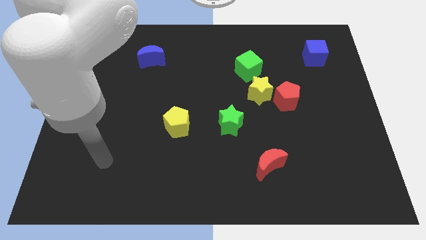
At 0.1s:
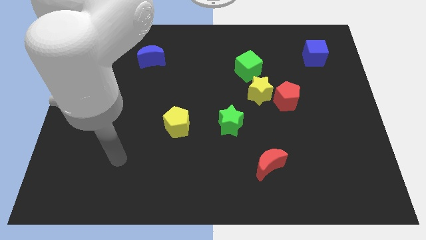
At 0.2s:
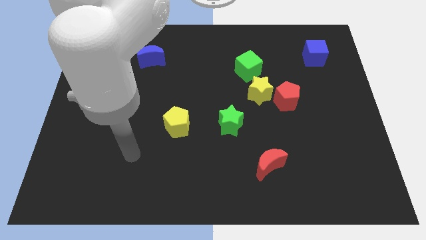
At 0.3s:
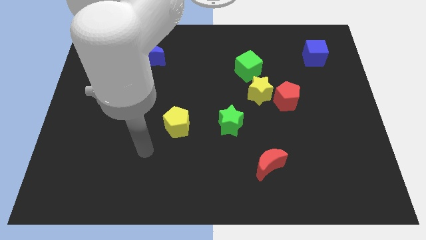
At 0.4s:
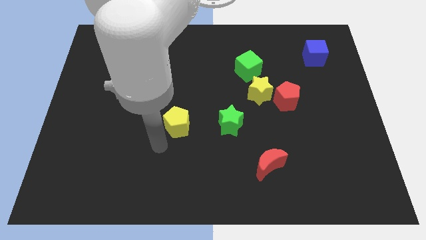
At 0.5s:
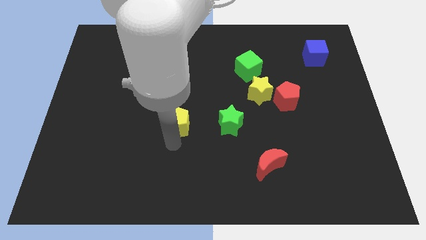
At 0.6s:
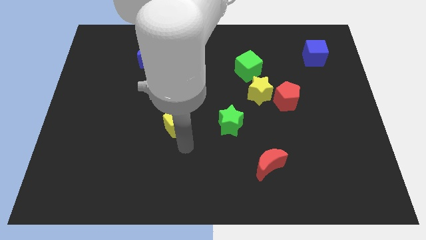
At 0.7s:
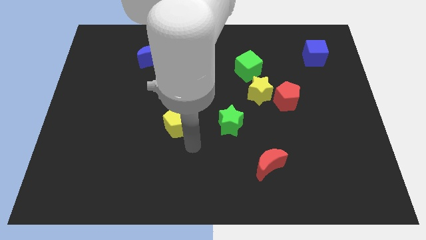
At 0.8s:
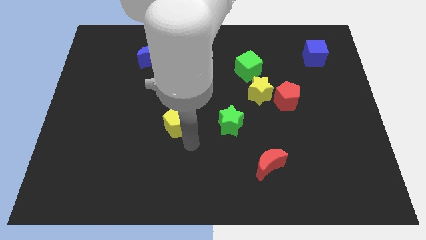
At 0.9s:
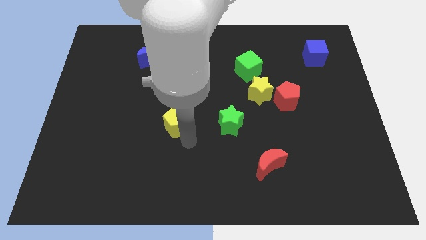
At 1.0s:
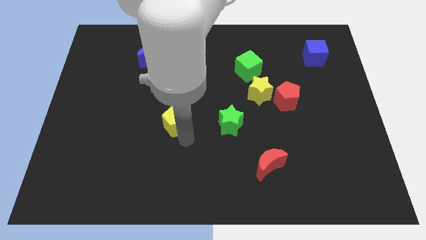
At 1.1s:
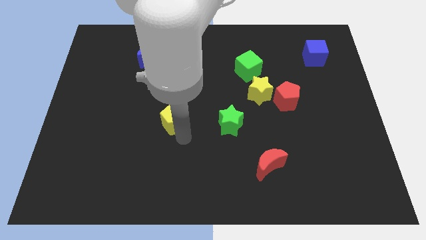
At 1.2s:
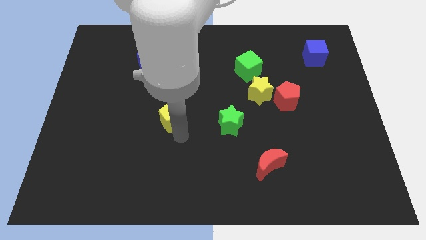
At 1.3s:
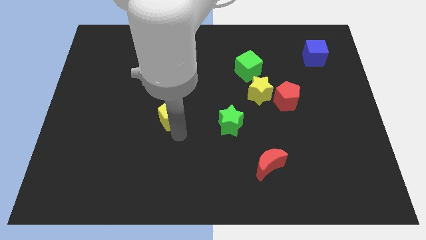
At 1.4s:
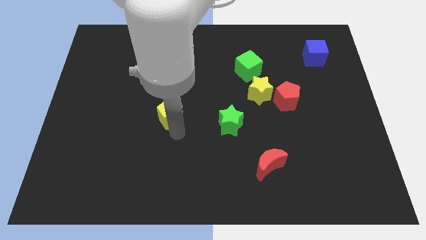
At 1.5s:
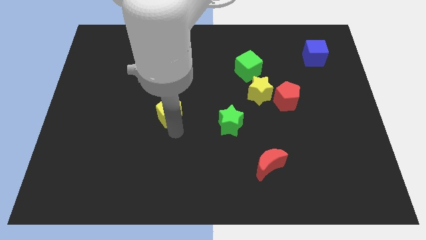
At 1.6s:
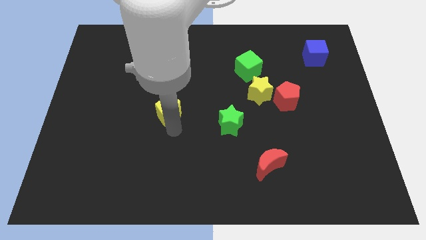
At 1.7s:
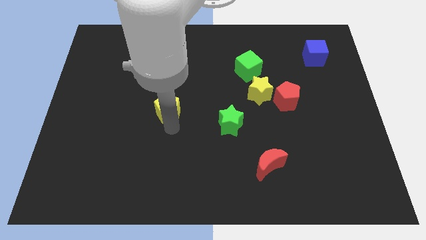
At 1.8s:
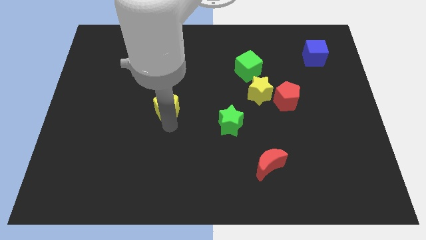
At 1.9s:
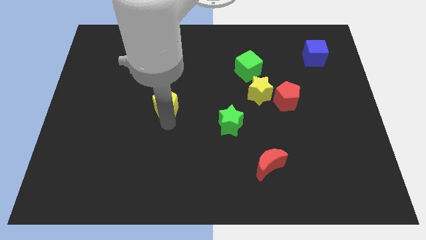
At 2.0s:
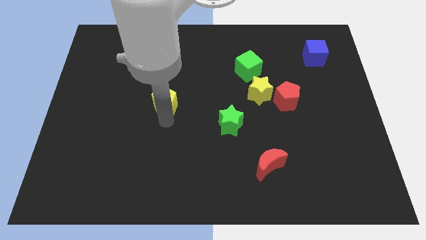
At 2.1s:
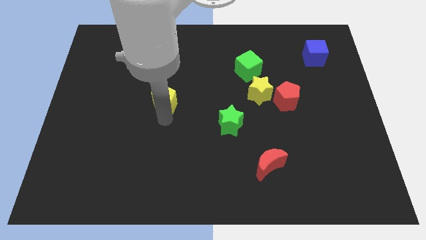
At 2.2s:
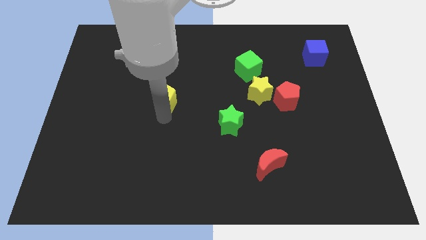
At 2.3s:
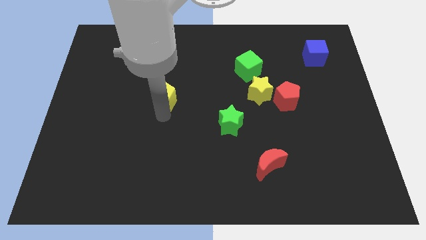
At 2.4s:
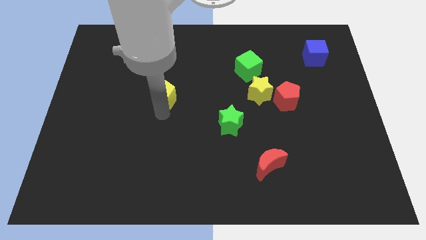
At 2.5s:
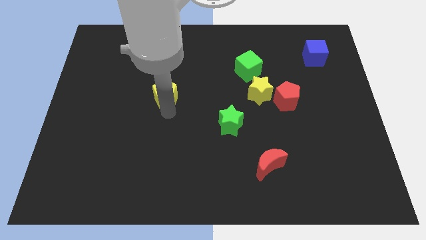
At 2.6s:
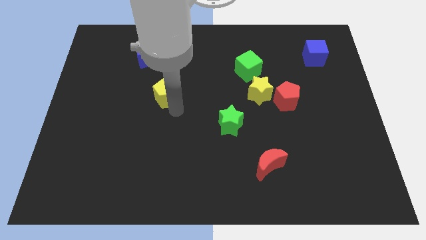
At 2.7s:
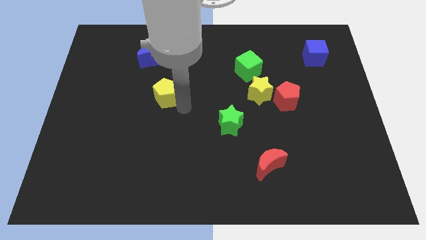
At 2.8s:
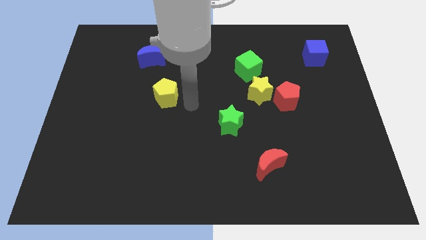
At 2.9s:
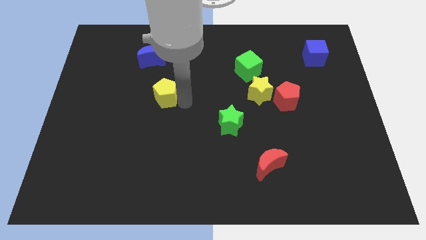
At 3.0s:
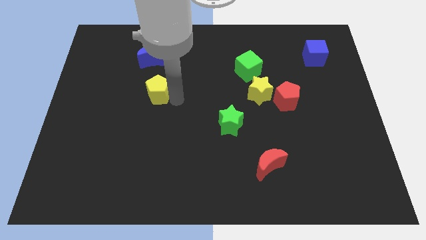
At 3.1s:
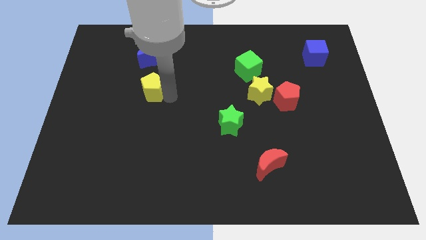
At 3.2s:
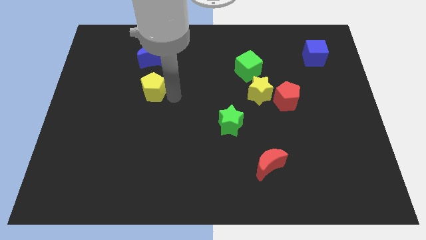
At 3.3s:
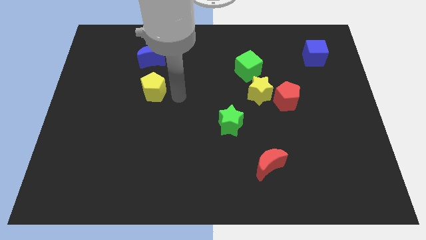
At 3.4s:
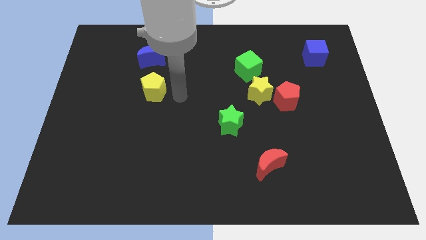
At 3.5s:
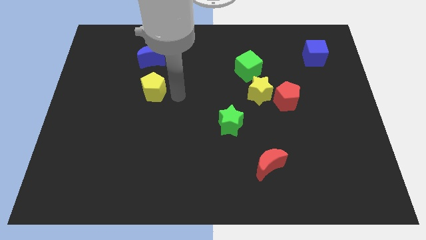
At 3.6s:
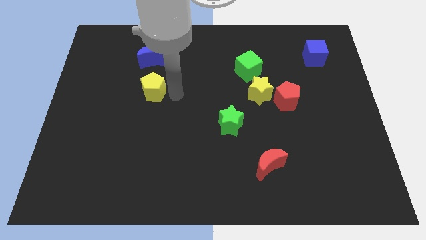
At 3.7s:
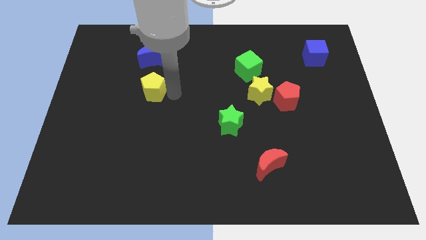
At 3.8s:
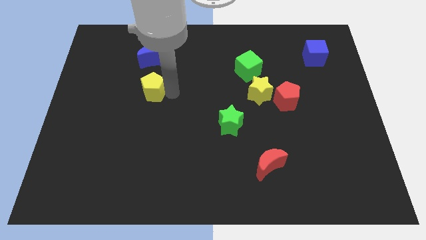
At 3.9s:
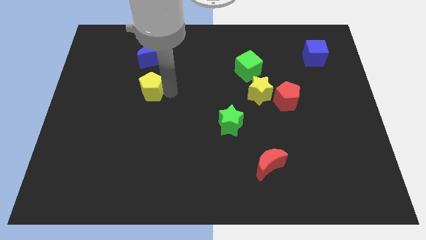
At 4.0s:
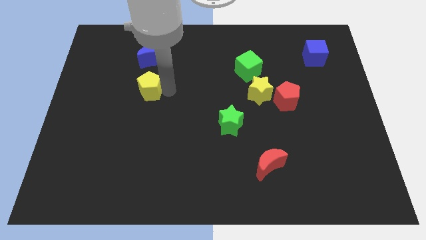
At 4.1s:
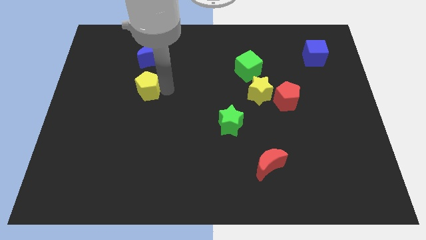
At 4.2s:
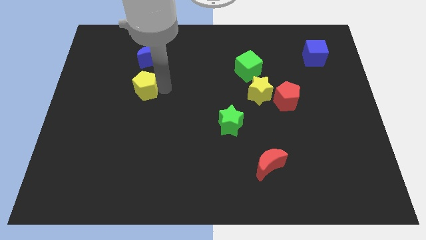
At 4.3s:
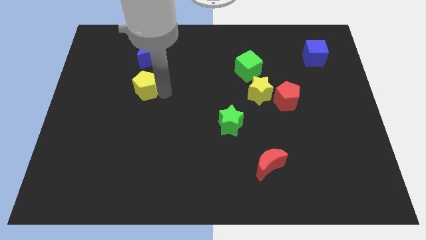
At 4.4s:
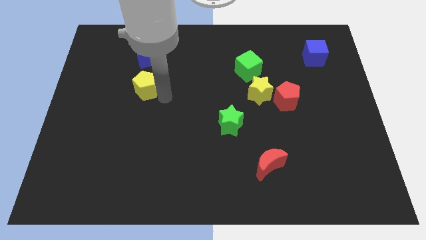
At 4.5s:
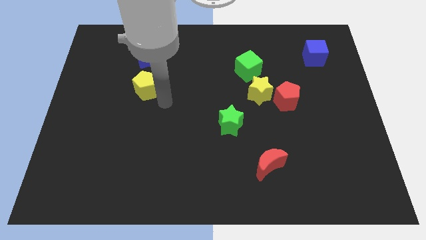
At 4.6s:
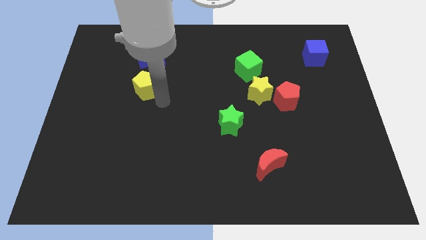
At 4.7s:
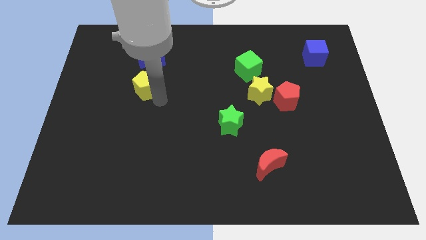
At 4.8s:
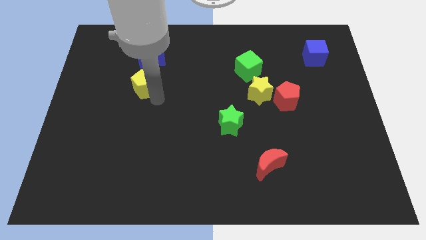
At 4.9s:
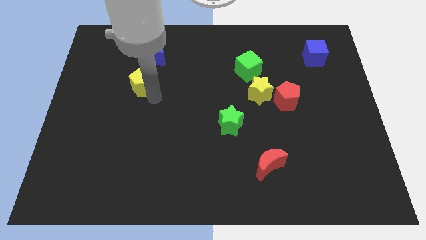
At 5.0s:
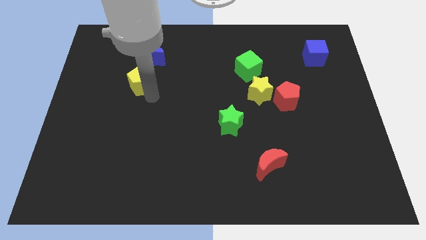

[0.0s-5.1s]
slide the yellow pentagon to the bottom left of the blue moon

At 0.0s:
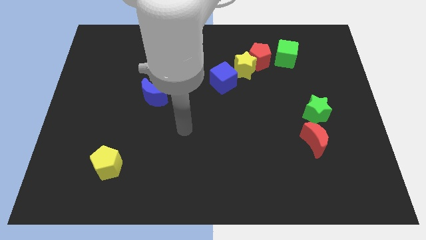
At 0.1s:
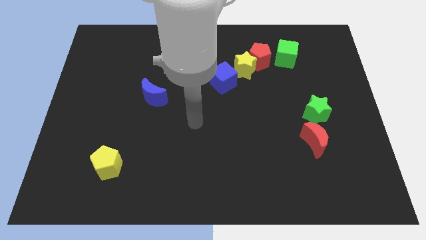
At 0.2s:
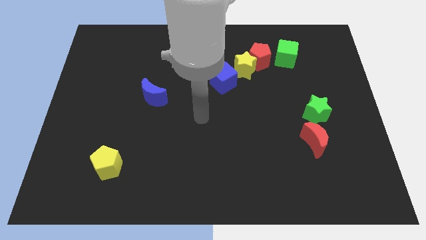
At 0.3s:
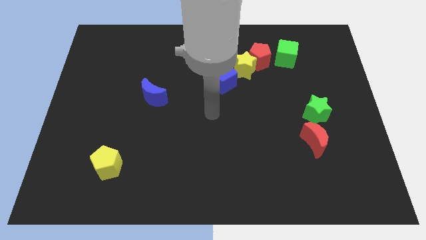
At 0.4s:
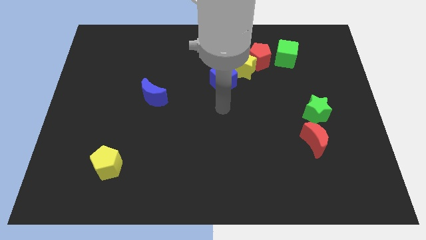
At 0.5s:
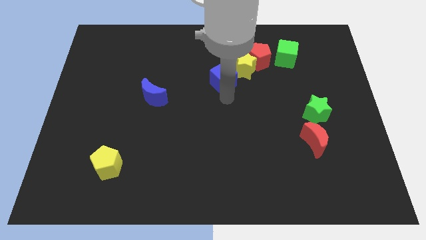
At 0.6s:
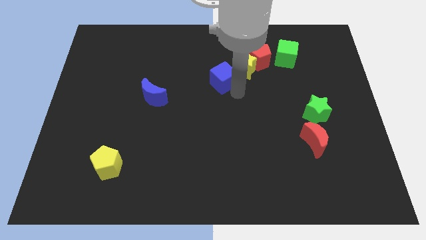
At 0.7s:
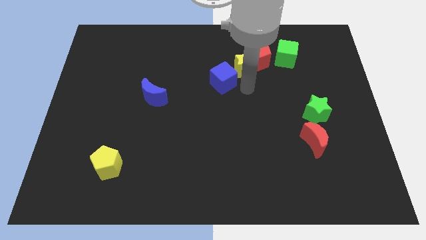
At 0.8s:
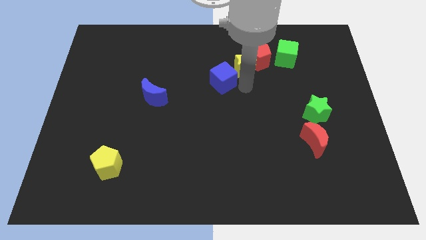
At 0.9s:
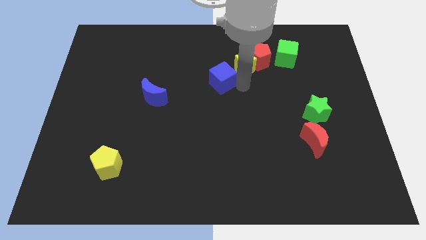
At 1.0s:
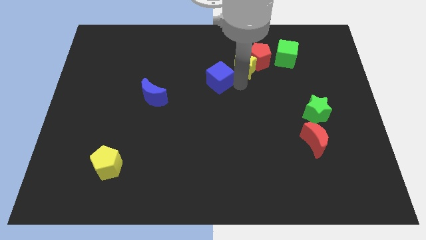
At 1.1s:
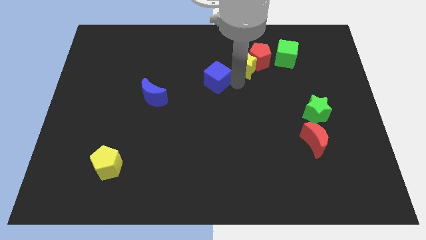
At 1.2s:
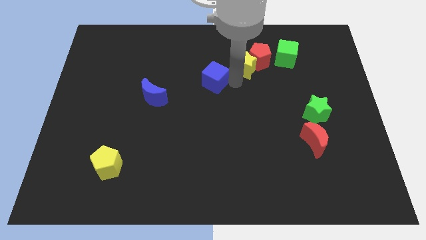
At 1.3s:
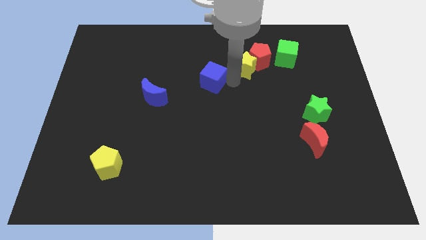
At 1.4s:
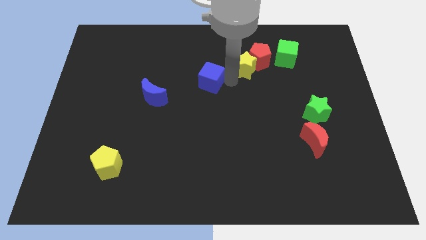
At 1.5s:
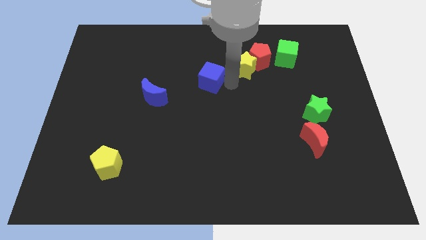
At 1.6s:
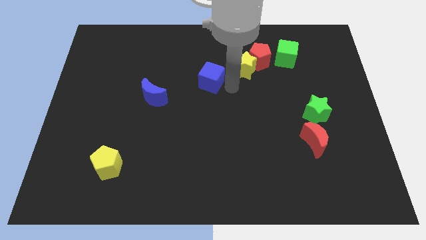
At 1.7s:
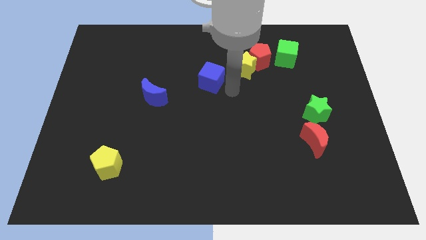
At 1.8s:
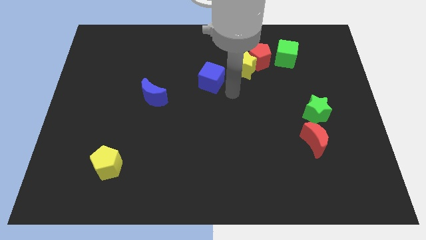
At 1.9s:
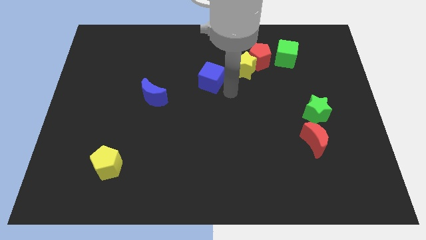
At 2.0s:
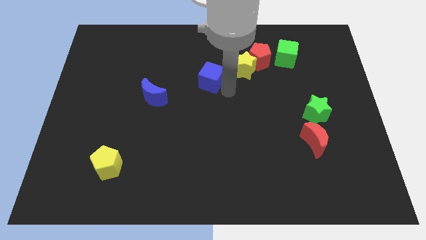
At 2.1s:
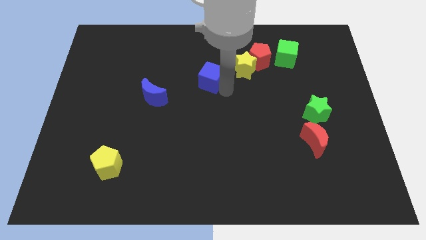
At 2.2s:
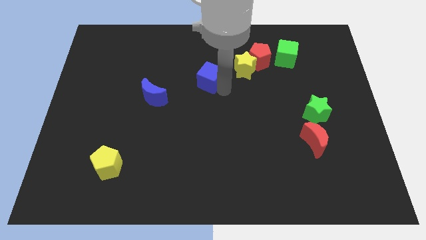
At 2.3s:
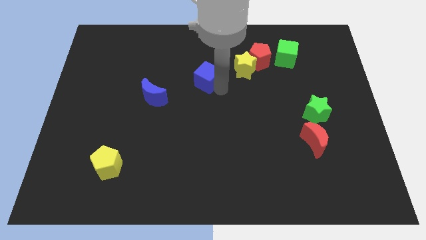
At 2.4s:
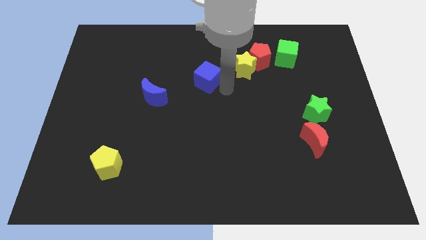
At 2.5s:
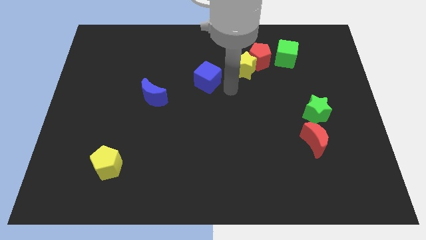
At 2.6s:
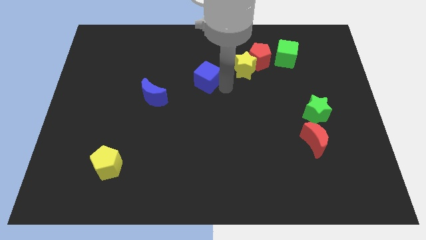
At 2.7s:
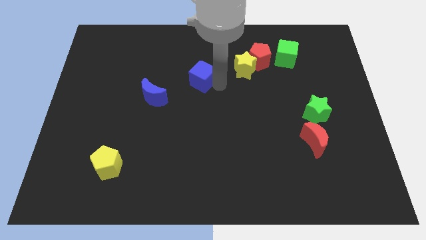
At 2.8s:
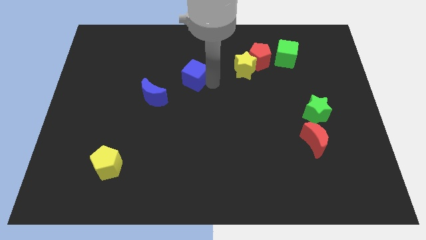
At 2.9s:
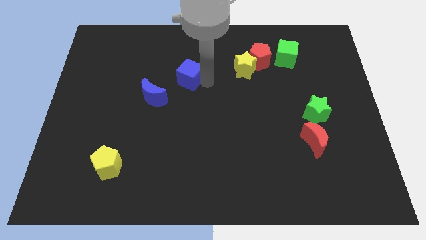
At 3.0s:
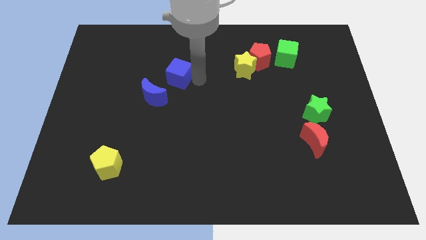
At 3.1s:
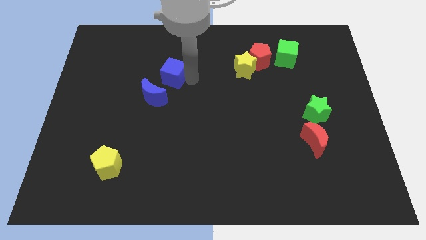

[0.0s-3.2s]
move the blue cube to the top side of the blue moon
